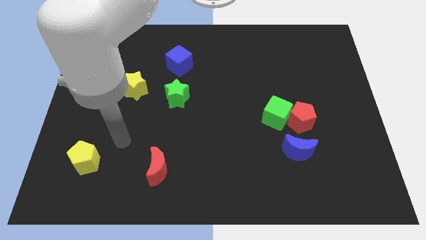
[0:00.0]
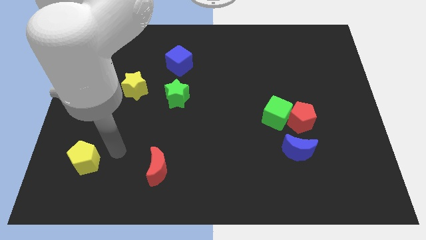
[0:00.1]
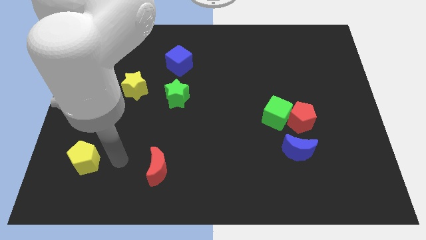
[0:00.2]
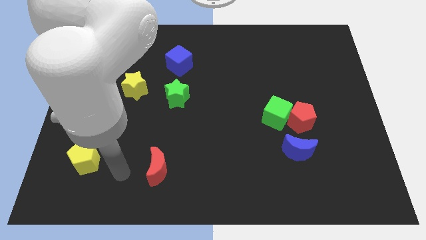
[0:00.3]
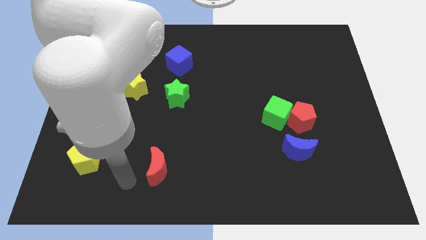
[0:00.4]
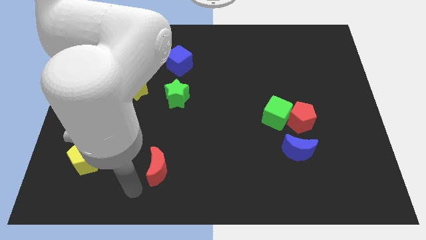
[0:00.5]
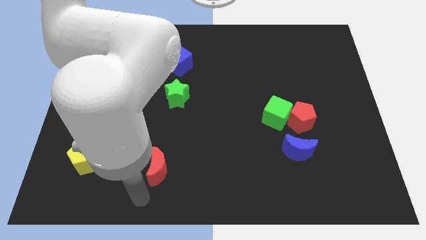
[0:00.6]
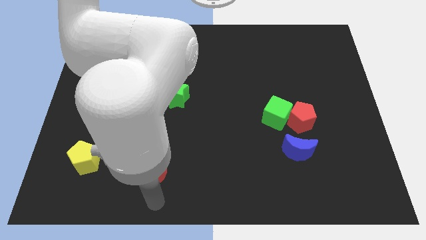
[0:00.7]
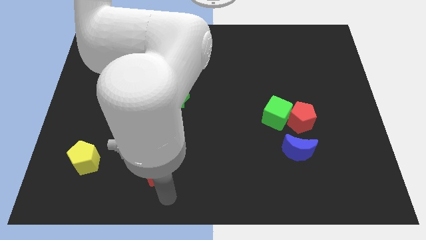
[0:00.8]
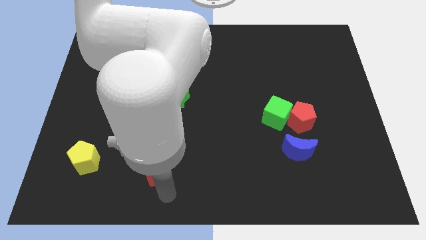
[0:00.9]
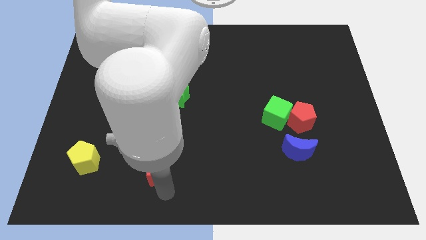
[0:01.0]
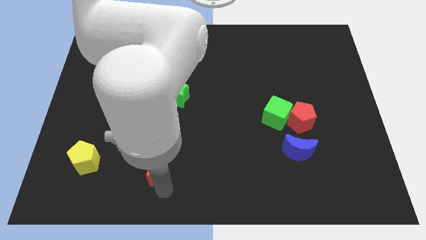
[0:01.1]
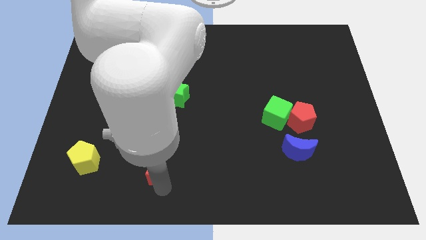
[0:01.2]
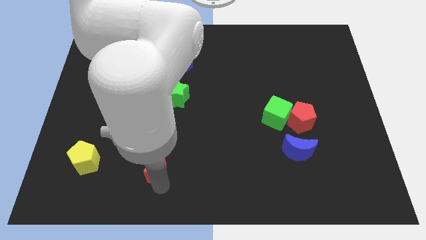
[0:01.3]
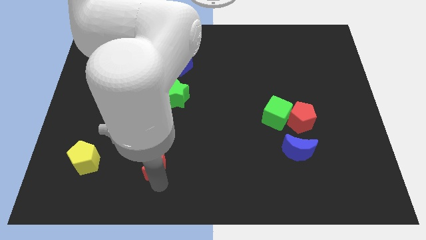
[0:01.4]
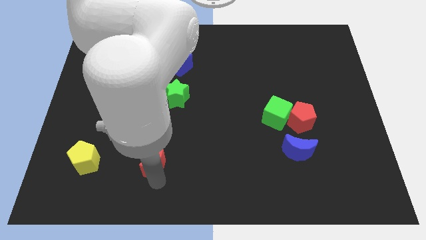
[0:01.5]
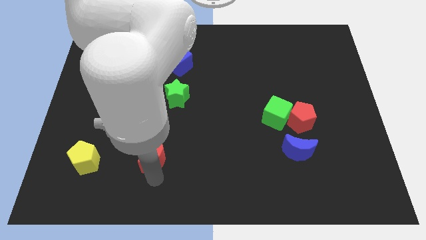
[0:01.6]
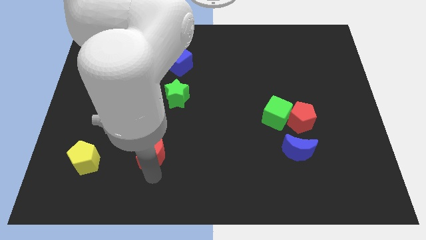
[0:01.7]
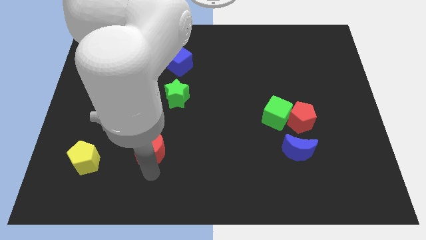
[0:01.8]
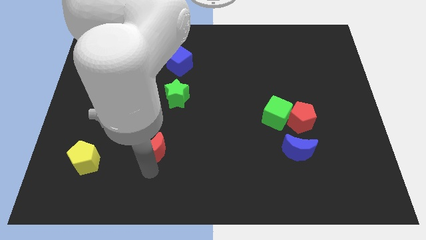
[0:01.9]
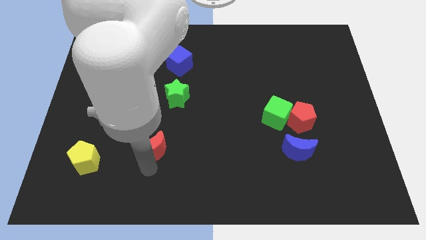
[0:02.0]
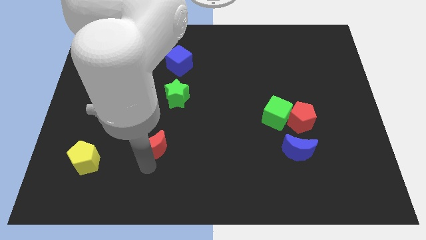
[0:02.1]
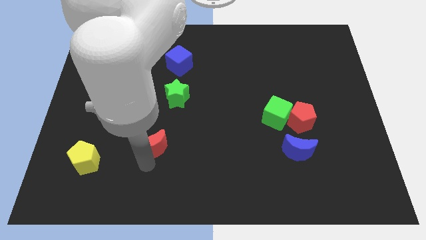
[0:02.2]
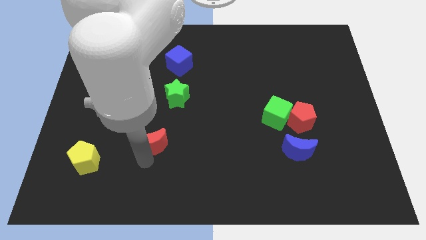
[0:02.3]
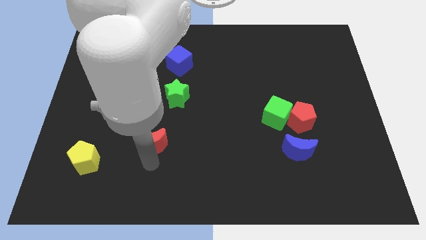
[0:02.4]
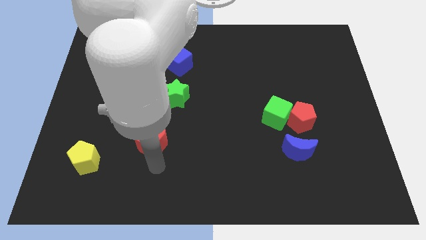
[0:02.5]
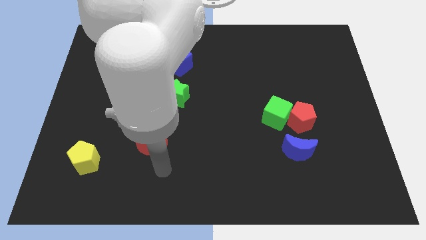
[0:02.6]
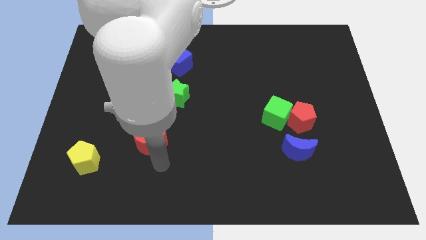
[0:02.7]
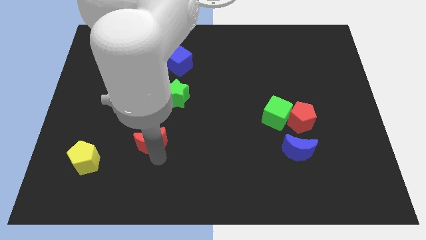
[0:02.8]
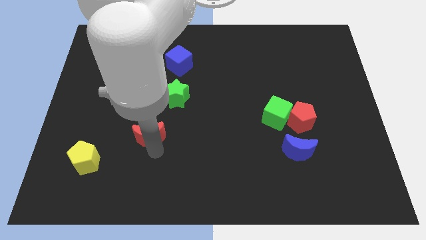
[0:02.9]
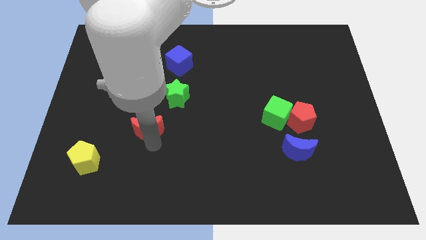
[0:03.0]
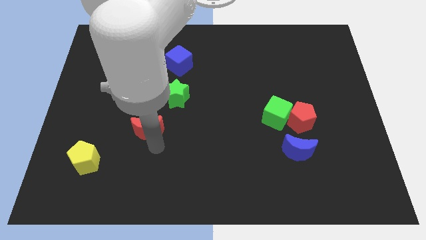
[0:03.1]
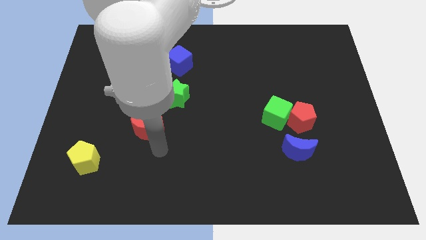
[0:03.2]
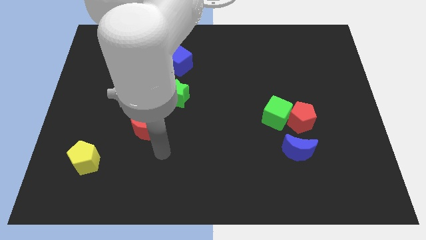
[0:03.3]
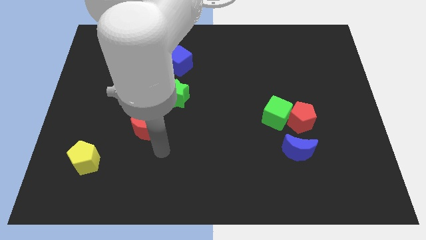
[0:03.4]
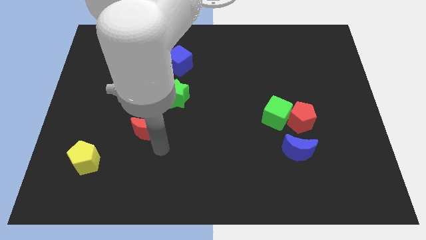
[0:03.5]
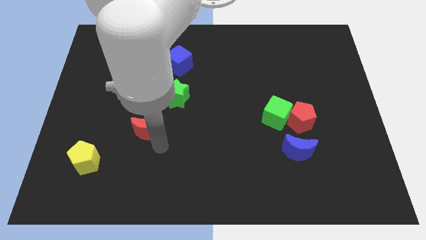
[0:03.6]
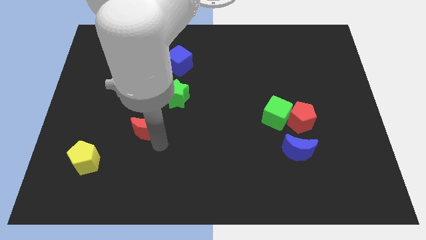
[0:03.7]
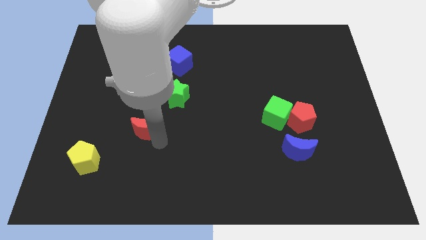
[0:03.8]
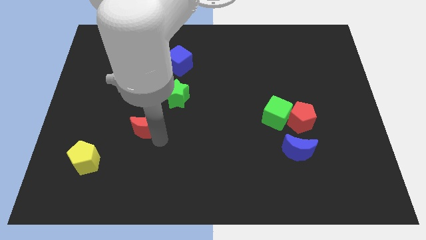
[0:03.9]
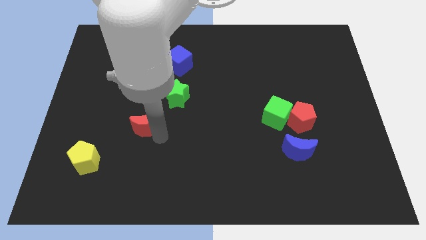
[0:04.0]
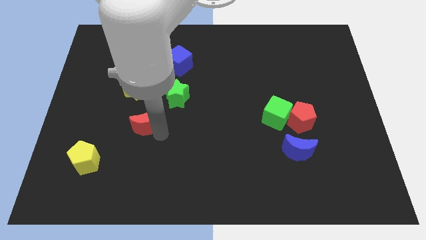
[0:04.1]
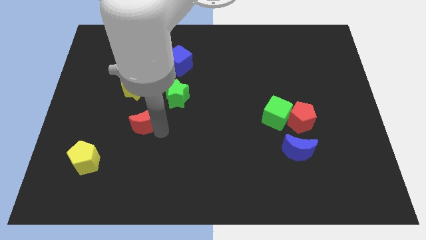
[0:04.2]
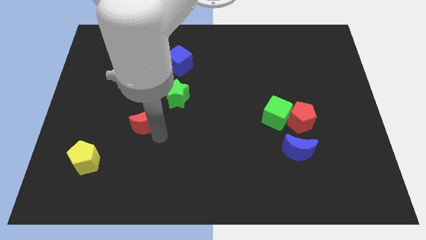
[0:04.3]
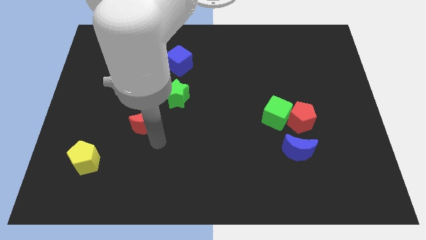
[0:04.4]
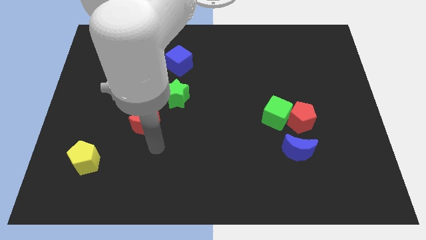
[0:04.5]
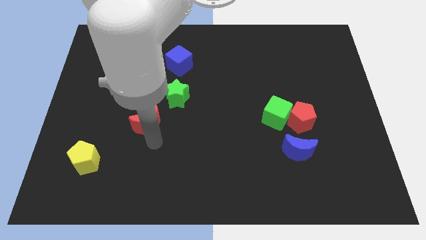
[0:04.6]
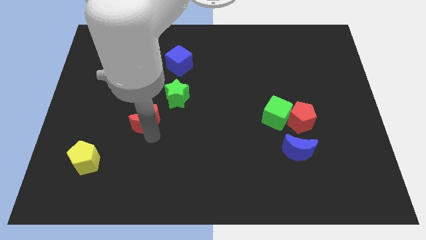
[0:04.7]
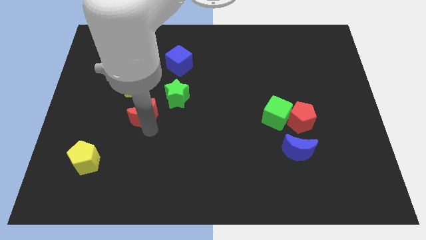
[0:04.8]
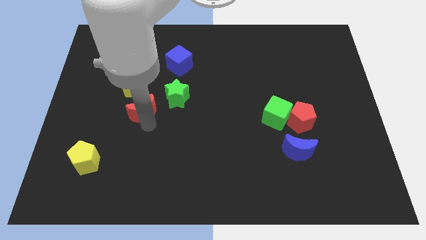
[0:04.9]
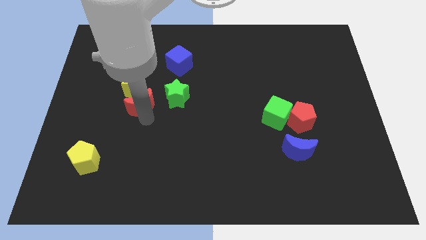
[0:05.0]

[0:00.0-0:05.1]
slide the red moon close to the yellow star

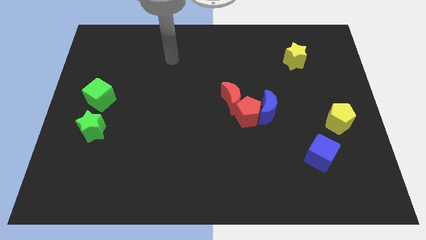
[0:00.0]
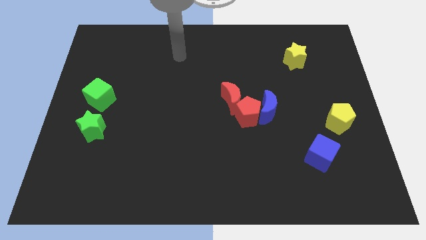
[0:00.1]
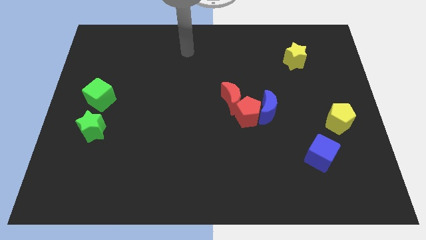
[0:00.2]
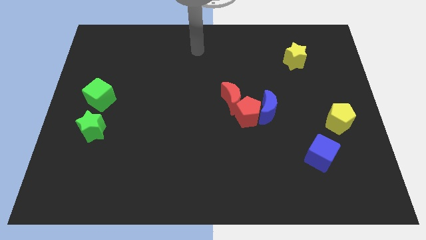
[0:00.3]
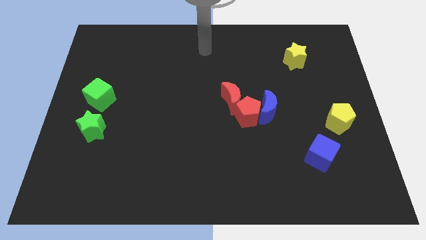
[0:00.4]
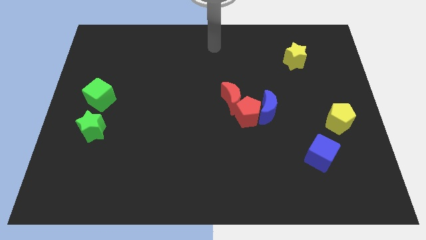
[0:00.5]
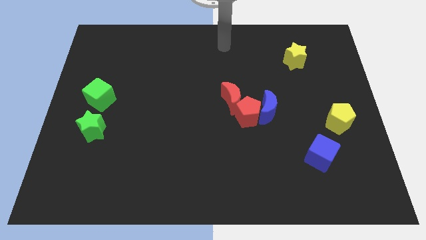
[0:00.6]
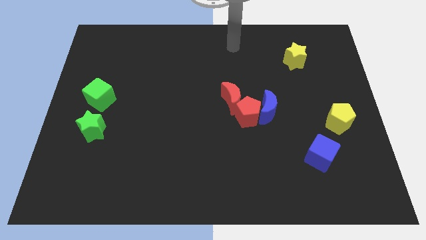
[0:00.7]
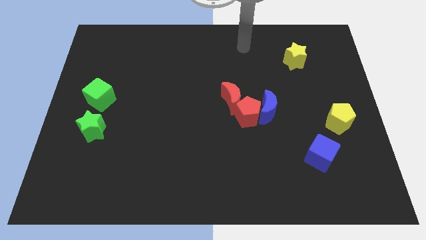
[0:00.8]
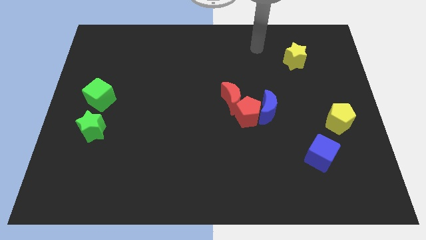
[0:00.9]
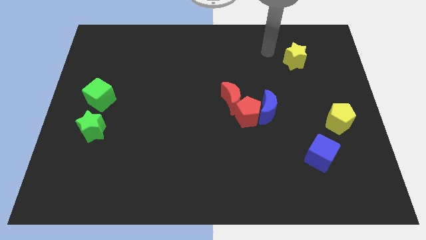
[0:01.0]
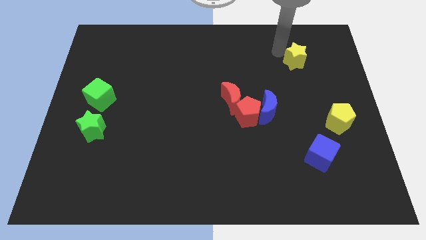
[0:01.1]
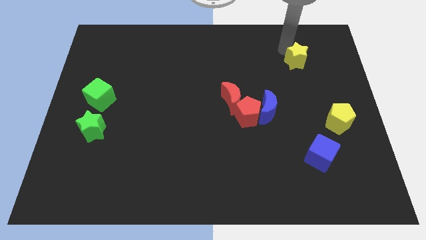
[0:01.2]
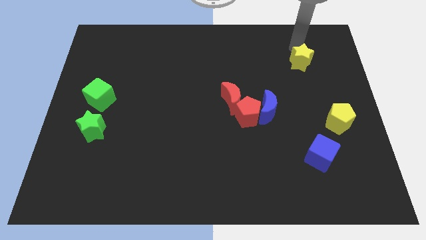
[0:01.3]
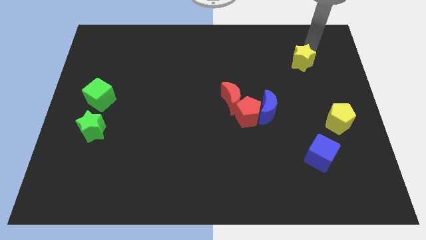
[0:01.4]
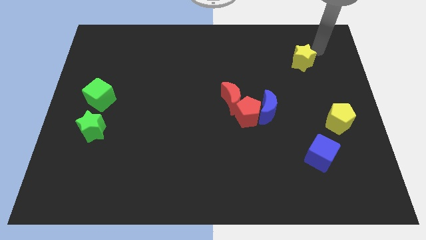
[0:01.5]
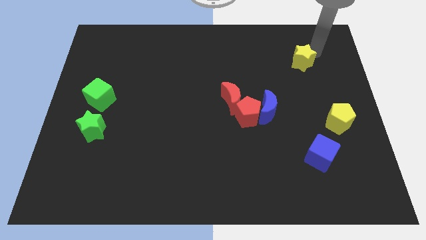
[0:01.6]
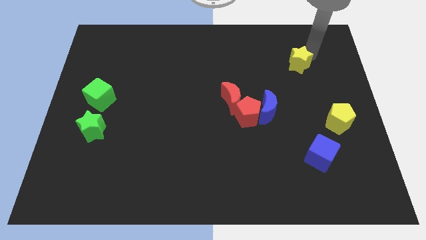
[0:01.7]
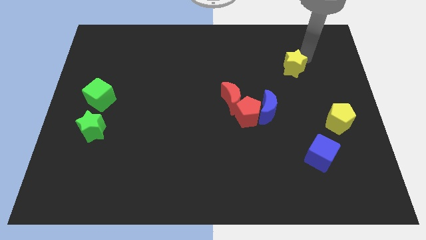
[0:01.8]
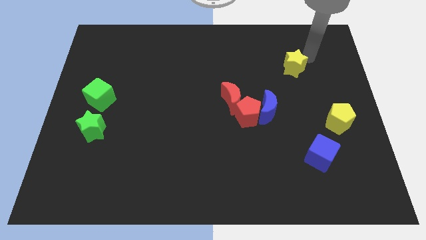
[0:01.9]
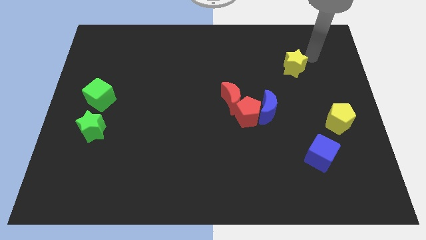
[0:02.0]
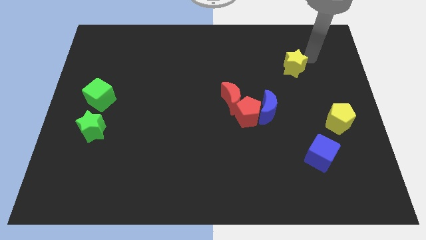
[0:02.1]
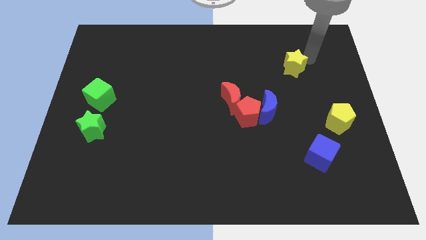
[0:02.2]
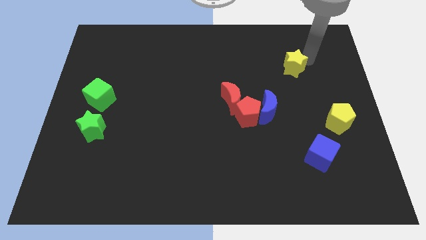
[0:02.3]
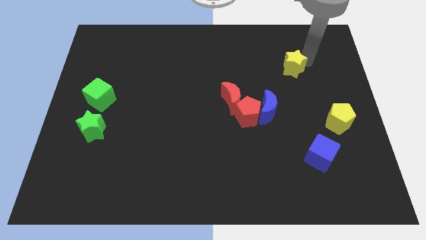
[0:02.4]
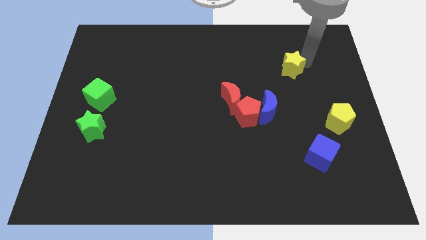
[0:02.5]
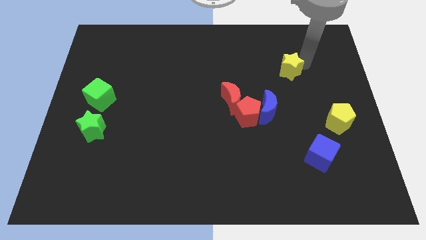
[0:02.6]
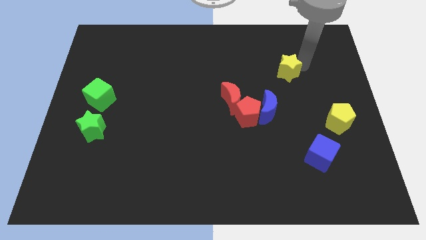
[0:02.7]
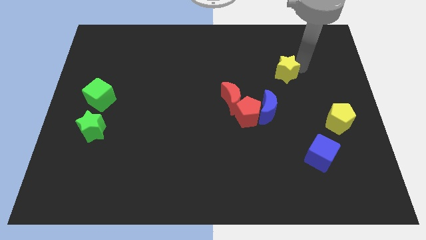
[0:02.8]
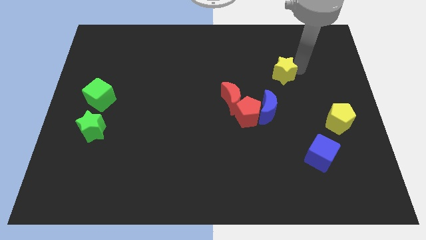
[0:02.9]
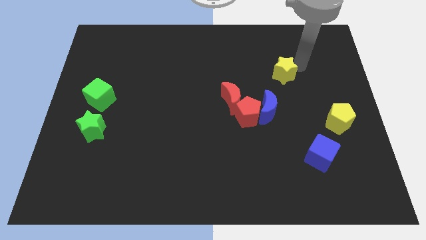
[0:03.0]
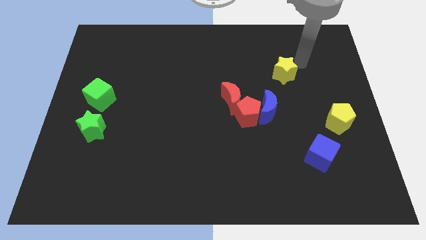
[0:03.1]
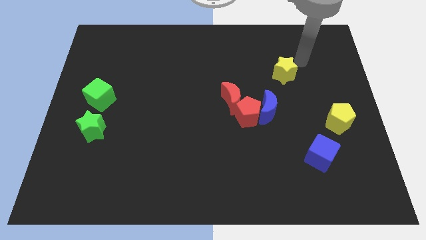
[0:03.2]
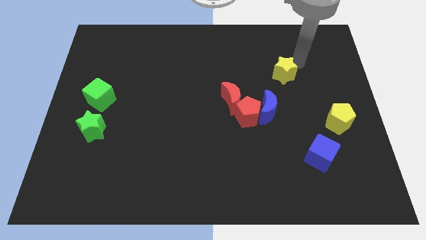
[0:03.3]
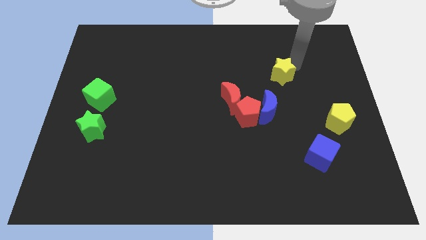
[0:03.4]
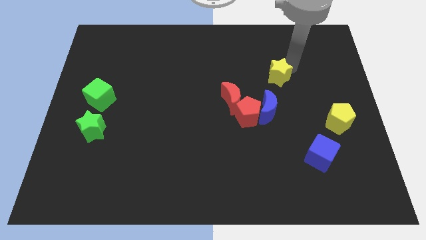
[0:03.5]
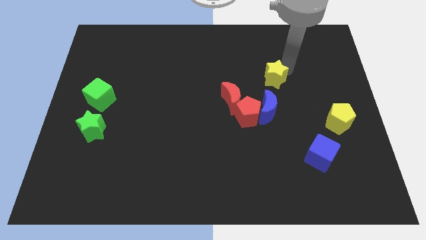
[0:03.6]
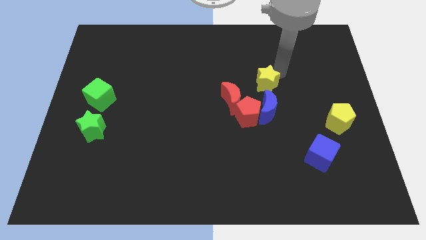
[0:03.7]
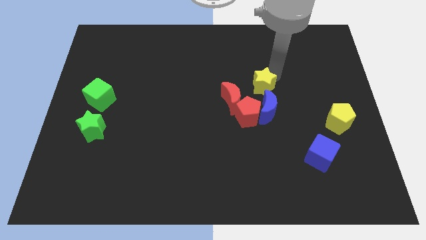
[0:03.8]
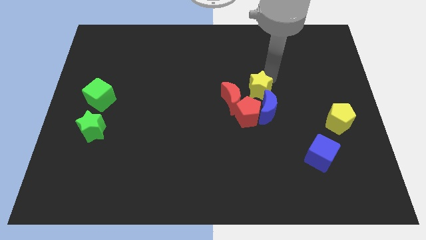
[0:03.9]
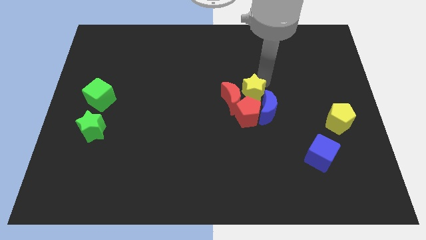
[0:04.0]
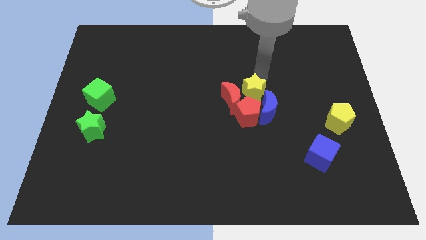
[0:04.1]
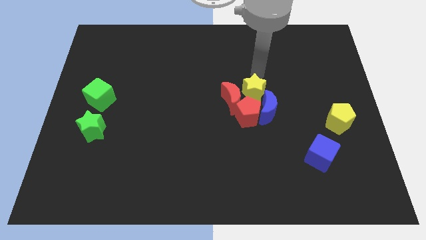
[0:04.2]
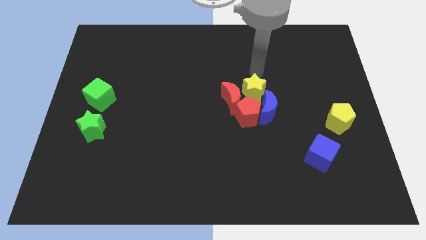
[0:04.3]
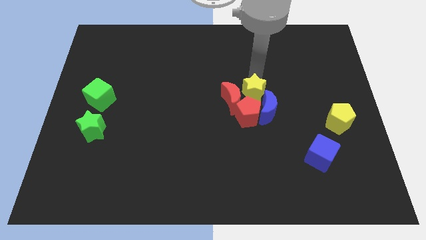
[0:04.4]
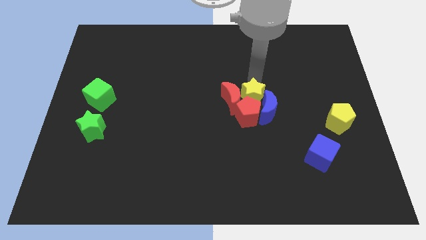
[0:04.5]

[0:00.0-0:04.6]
push the yellow star next to the red pentagon
